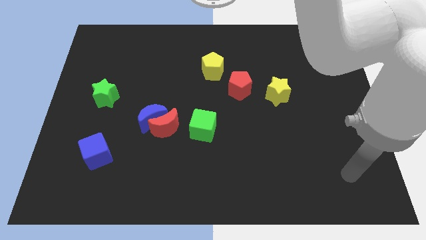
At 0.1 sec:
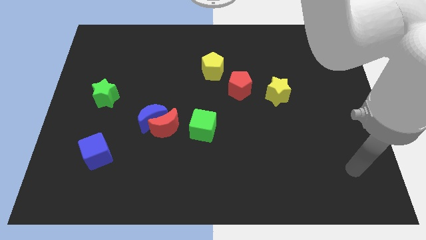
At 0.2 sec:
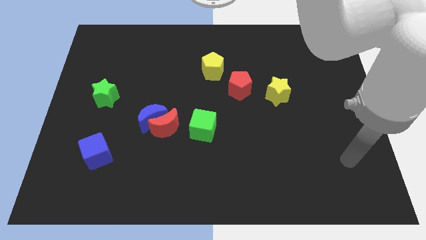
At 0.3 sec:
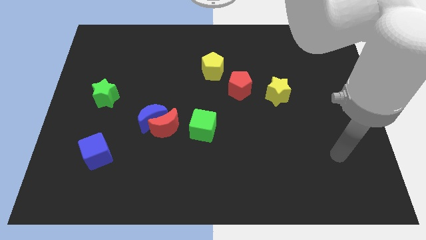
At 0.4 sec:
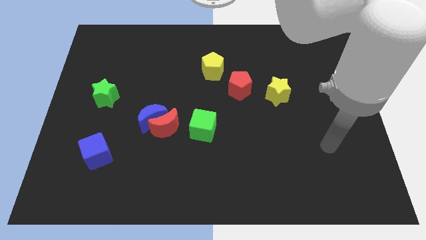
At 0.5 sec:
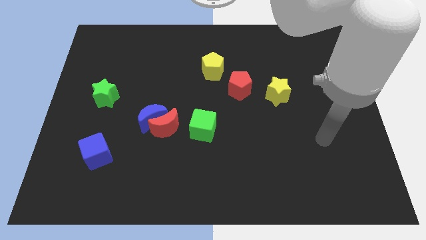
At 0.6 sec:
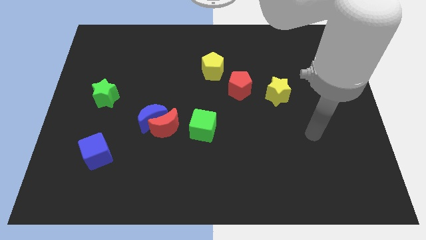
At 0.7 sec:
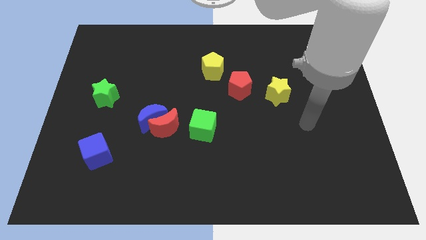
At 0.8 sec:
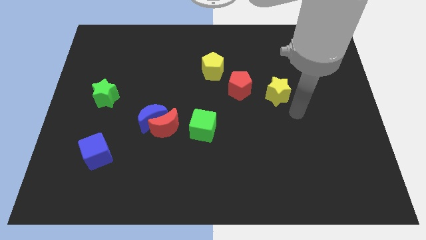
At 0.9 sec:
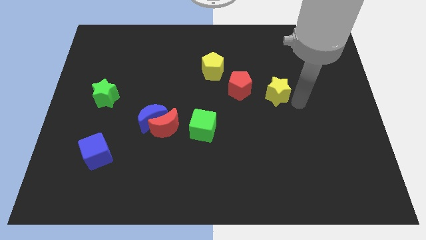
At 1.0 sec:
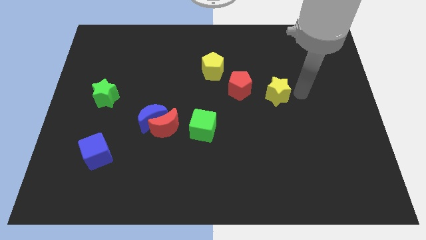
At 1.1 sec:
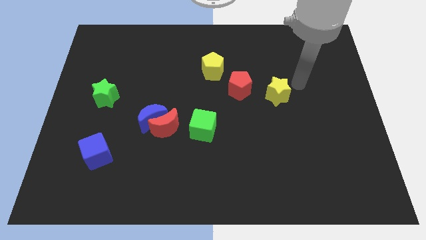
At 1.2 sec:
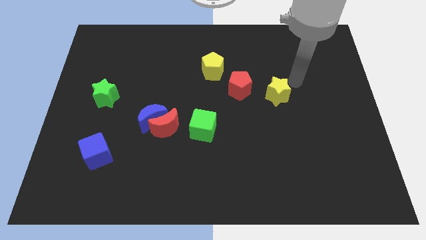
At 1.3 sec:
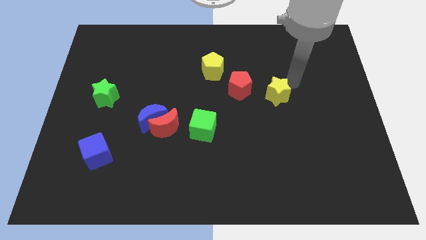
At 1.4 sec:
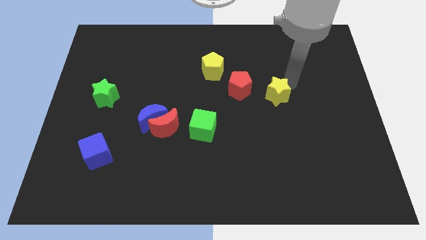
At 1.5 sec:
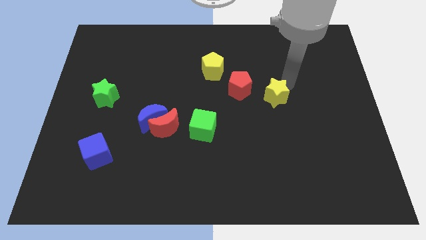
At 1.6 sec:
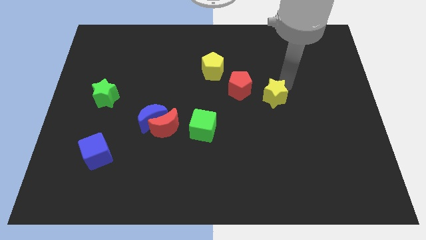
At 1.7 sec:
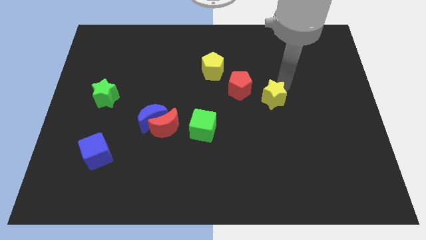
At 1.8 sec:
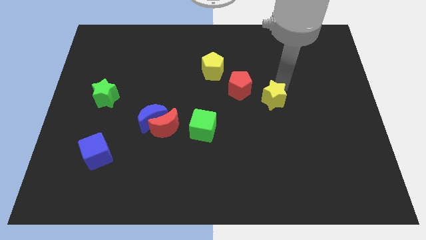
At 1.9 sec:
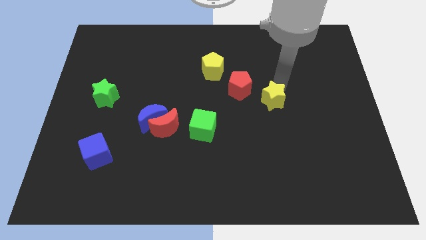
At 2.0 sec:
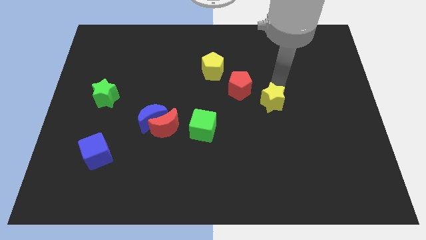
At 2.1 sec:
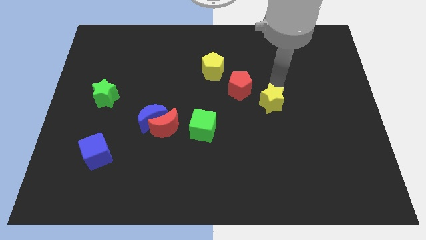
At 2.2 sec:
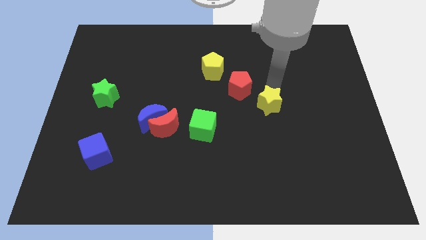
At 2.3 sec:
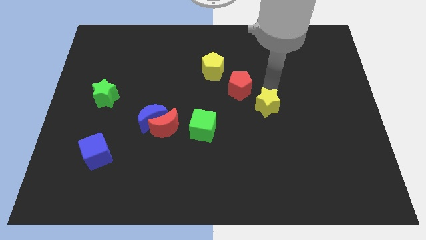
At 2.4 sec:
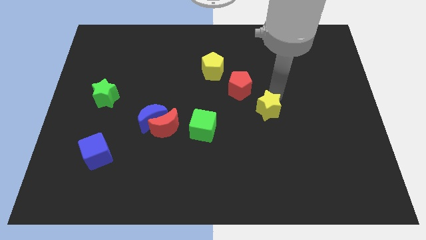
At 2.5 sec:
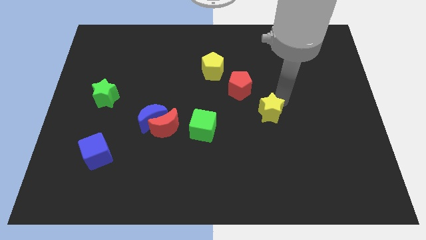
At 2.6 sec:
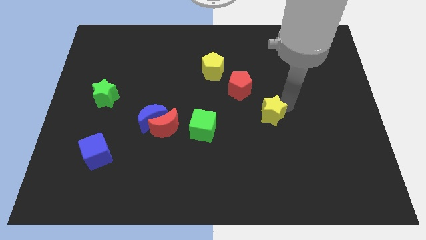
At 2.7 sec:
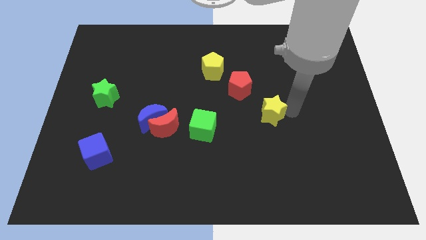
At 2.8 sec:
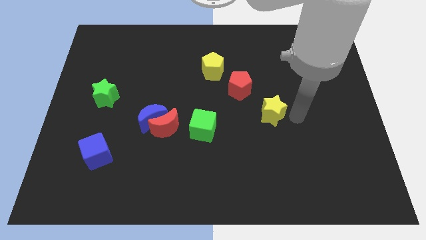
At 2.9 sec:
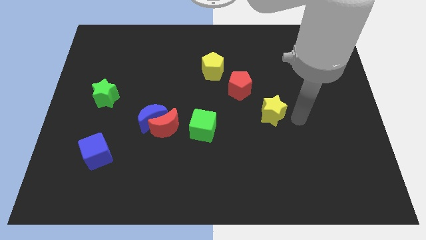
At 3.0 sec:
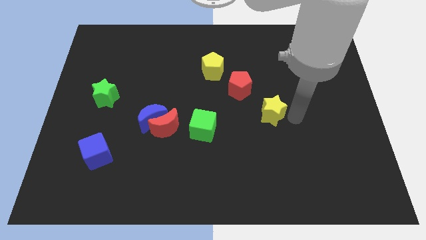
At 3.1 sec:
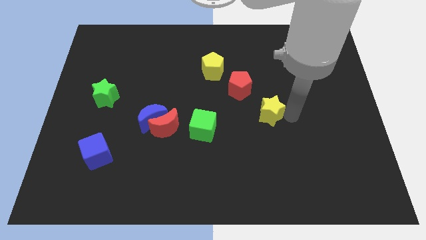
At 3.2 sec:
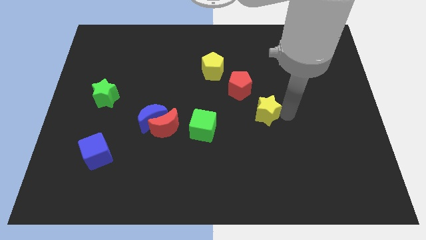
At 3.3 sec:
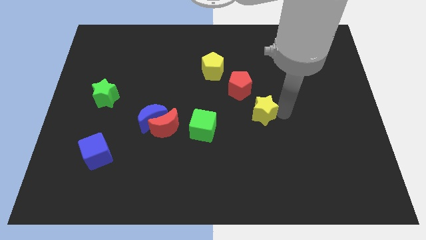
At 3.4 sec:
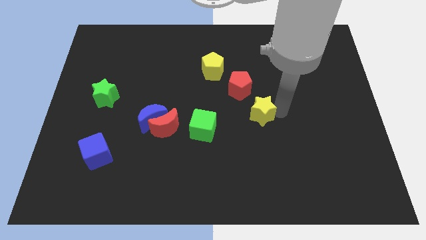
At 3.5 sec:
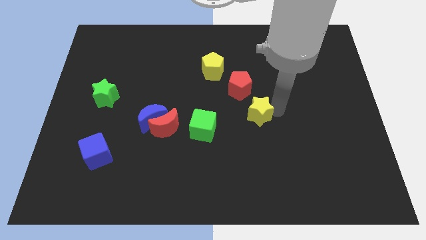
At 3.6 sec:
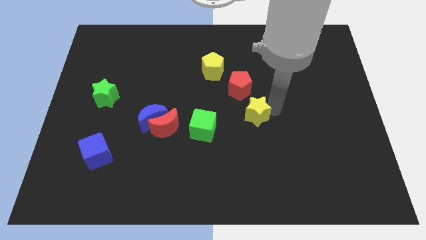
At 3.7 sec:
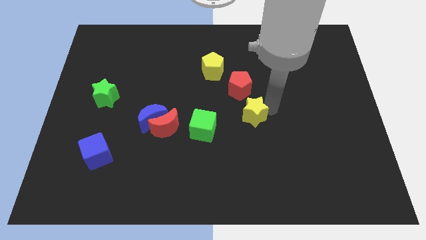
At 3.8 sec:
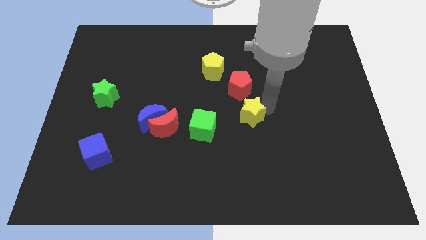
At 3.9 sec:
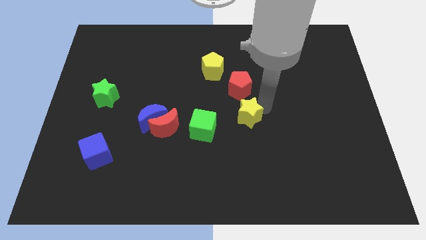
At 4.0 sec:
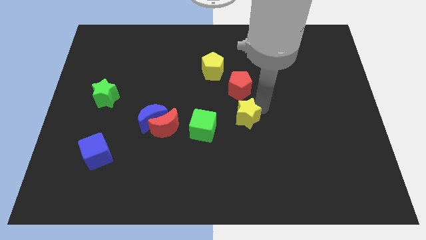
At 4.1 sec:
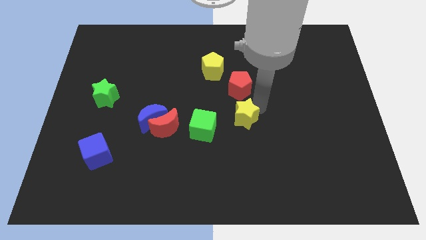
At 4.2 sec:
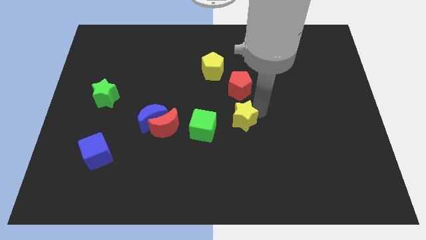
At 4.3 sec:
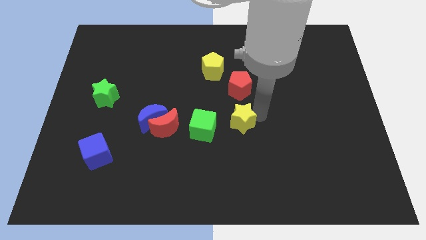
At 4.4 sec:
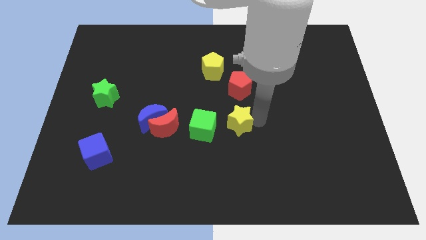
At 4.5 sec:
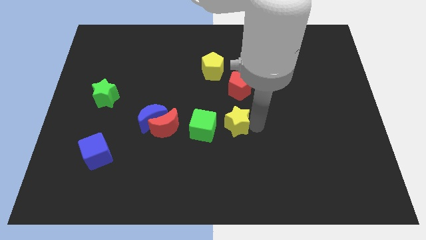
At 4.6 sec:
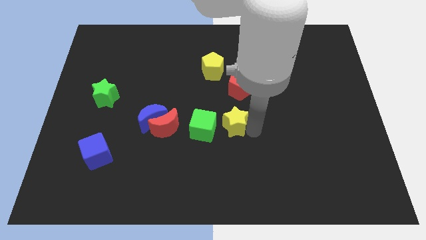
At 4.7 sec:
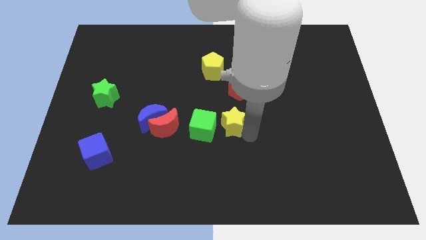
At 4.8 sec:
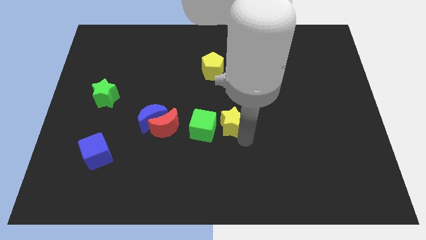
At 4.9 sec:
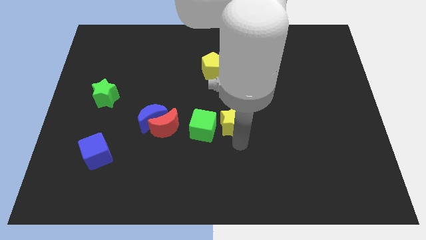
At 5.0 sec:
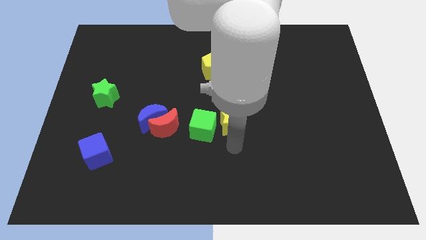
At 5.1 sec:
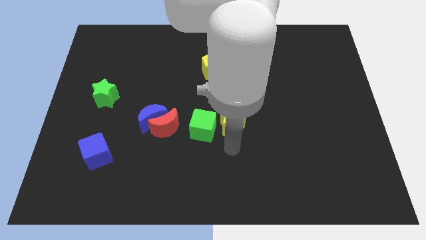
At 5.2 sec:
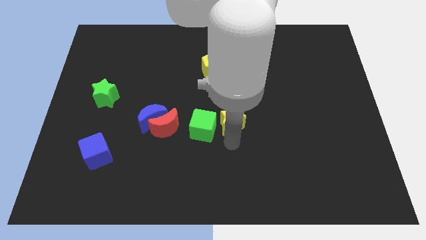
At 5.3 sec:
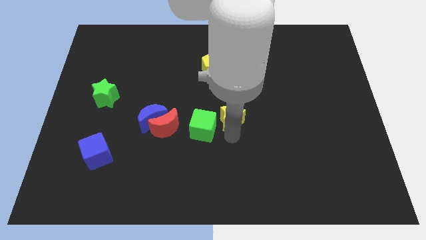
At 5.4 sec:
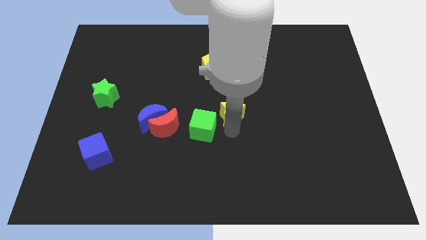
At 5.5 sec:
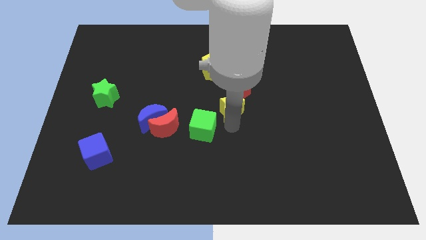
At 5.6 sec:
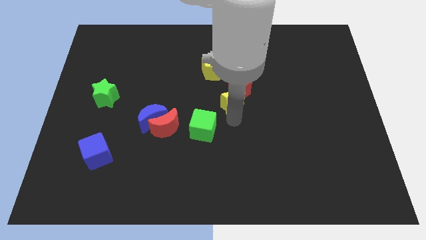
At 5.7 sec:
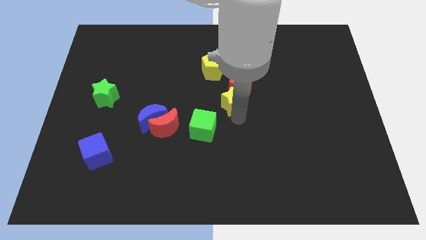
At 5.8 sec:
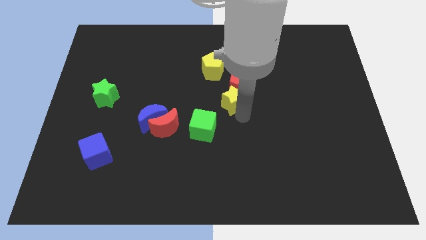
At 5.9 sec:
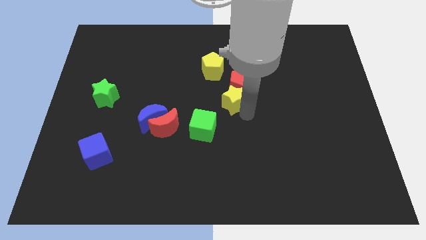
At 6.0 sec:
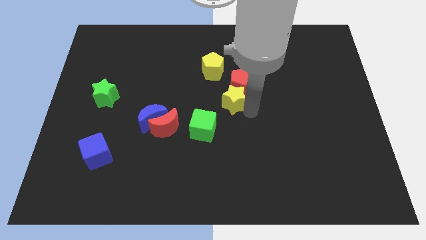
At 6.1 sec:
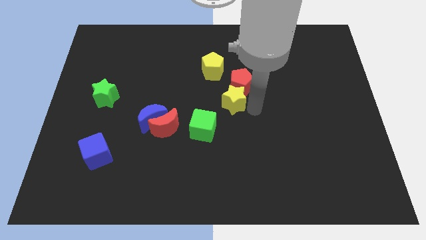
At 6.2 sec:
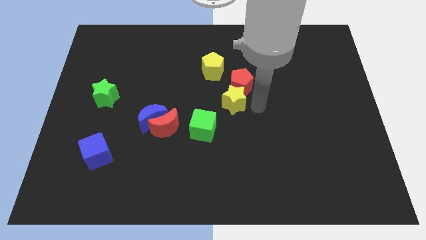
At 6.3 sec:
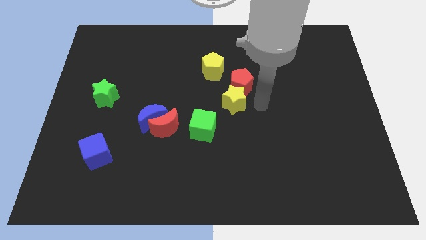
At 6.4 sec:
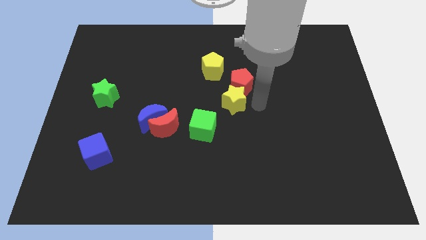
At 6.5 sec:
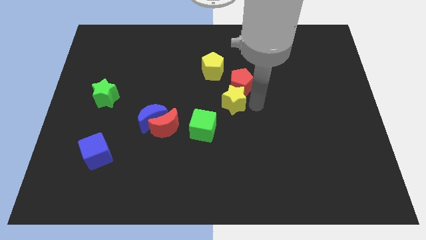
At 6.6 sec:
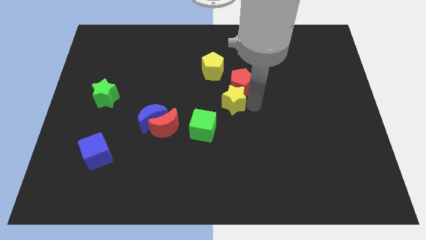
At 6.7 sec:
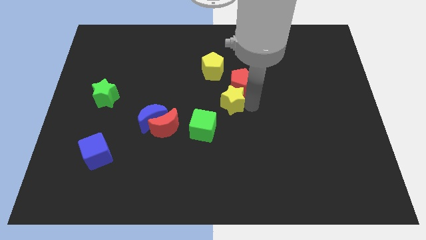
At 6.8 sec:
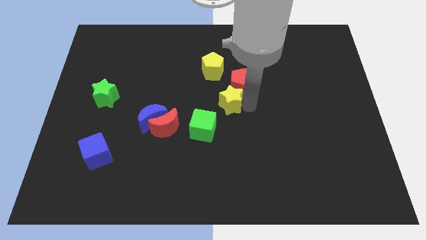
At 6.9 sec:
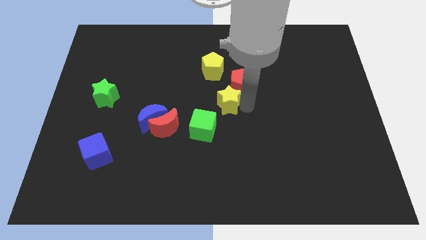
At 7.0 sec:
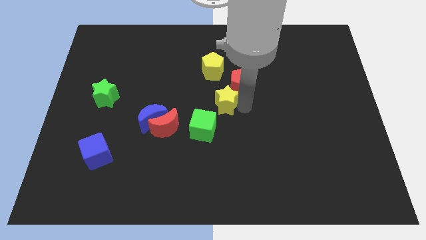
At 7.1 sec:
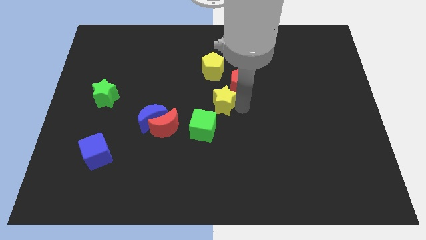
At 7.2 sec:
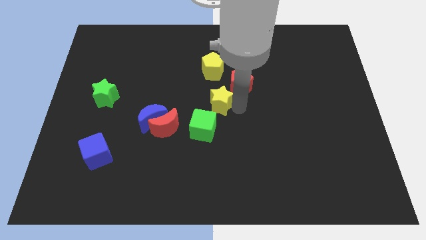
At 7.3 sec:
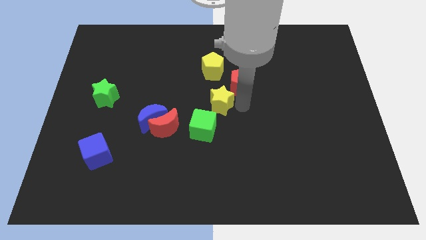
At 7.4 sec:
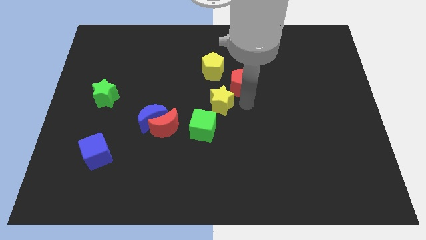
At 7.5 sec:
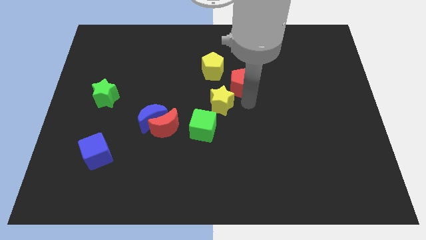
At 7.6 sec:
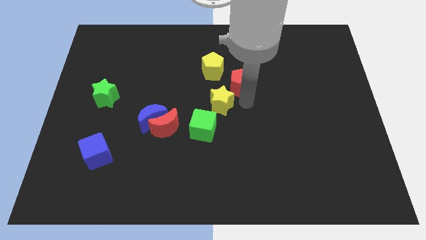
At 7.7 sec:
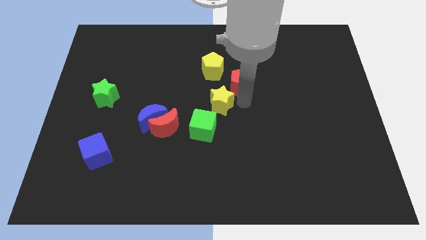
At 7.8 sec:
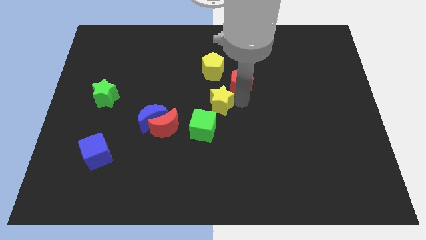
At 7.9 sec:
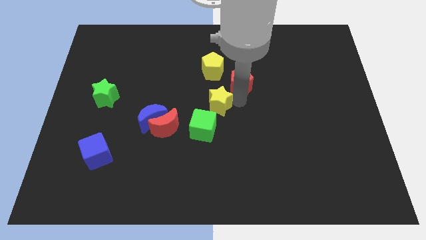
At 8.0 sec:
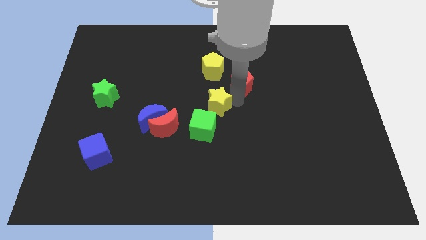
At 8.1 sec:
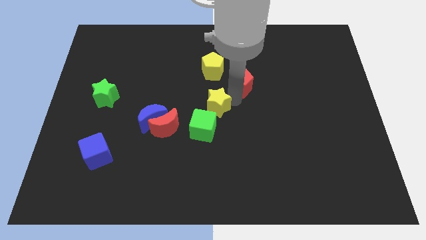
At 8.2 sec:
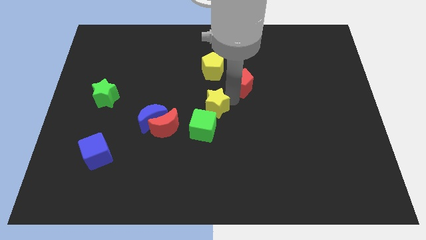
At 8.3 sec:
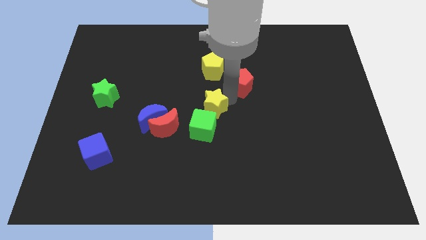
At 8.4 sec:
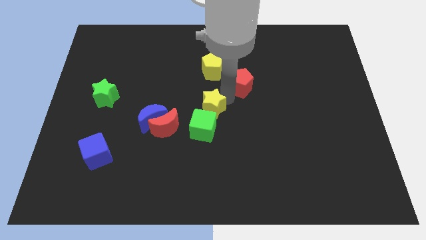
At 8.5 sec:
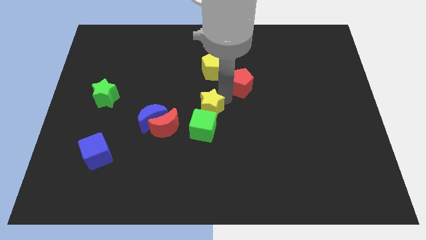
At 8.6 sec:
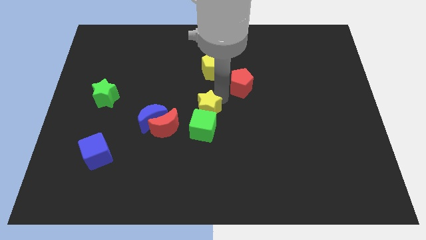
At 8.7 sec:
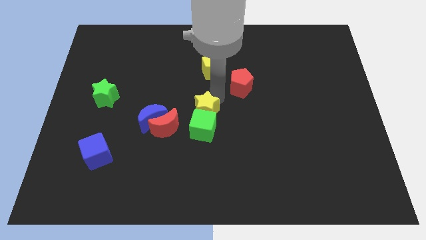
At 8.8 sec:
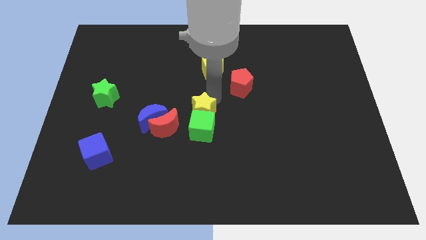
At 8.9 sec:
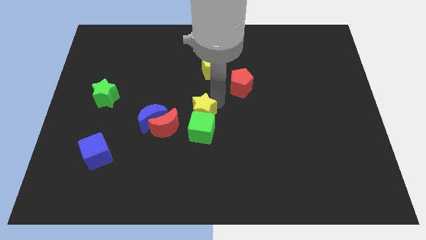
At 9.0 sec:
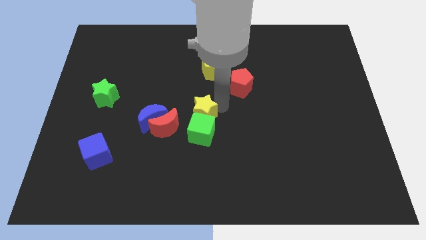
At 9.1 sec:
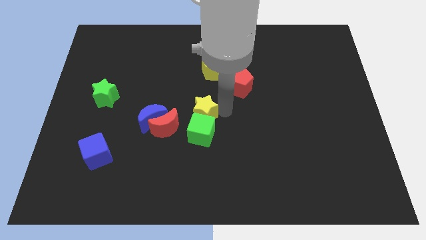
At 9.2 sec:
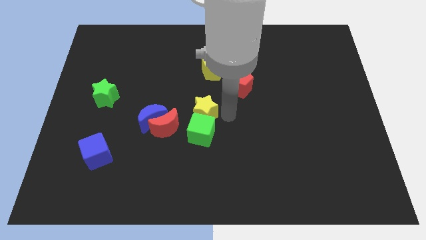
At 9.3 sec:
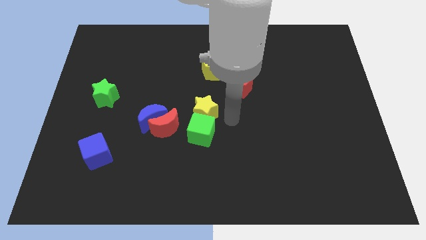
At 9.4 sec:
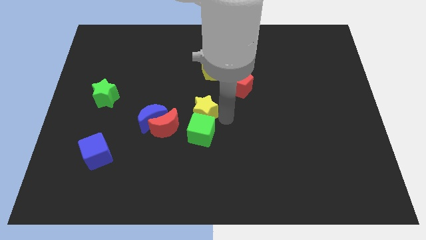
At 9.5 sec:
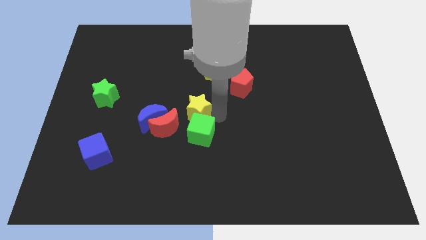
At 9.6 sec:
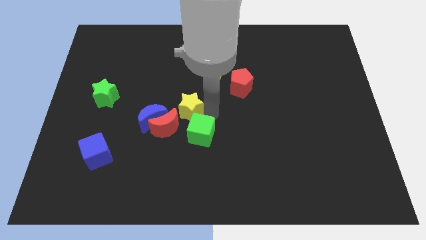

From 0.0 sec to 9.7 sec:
move the yellow star to the left
